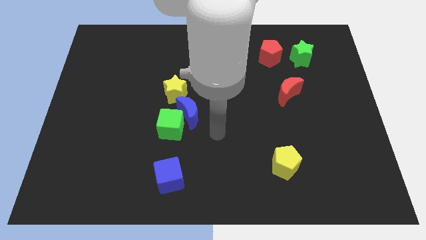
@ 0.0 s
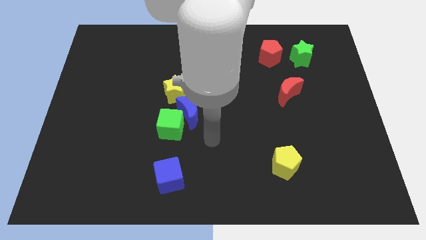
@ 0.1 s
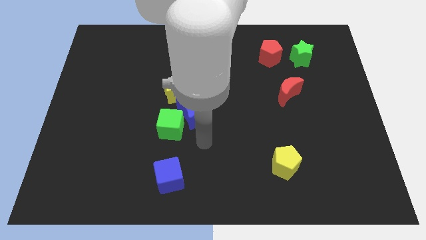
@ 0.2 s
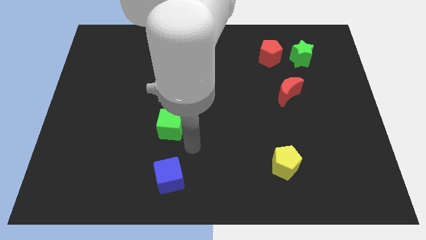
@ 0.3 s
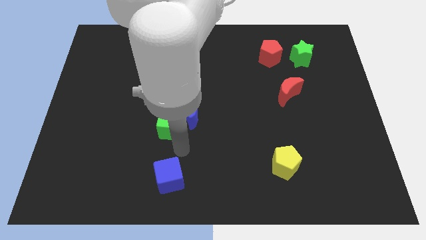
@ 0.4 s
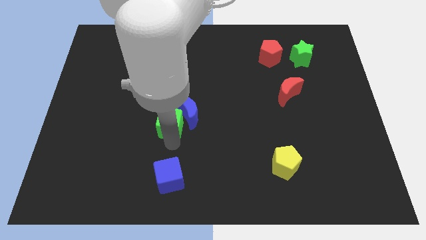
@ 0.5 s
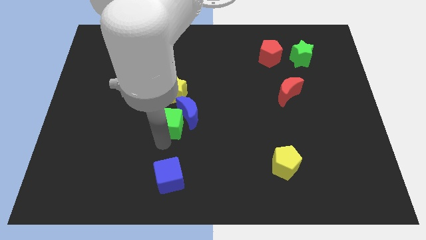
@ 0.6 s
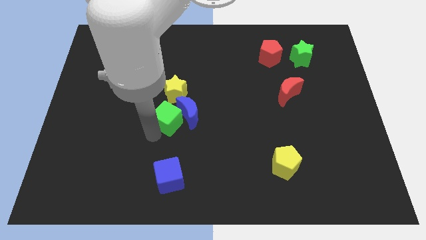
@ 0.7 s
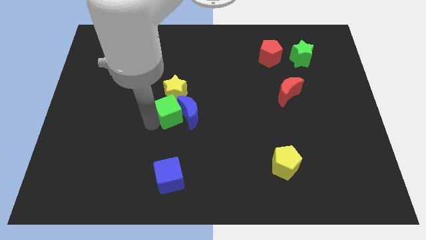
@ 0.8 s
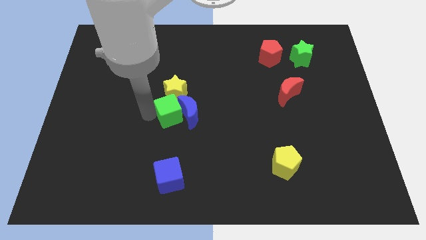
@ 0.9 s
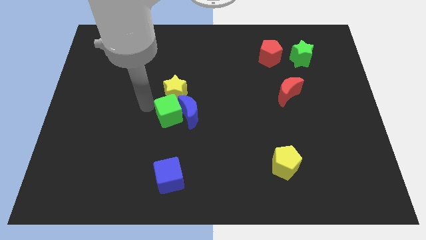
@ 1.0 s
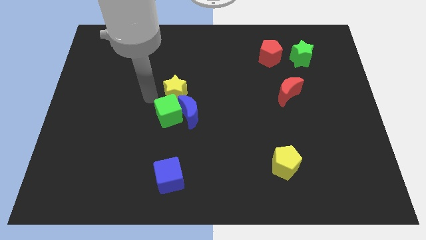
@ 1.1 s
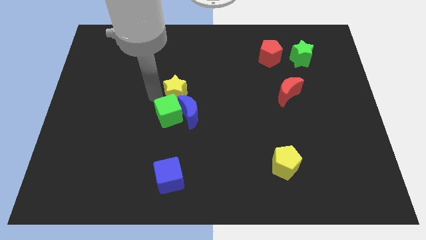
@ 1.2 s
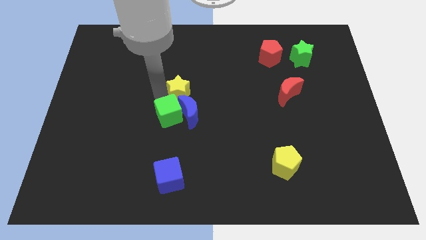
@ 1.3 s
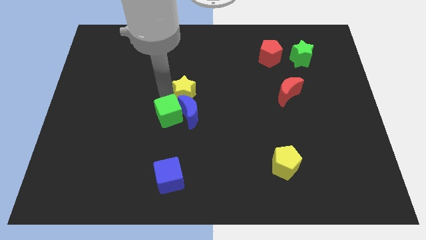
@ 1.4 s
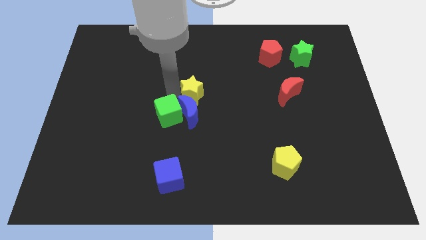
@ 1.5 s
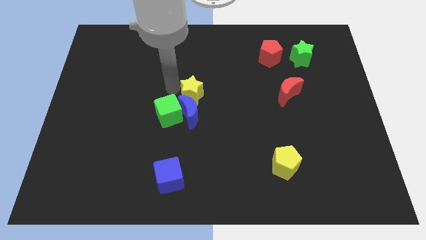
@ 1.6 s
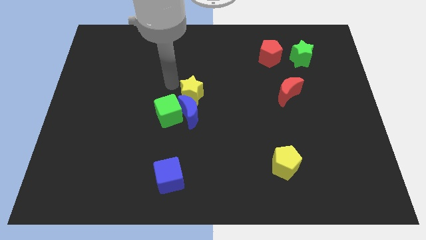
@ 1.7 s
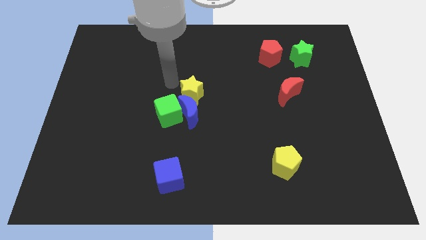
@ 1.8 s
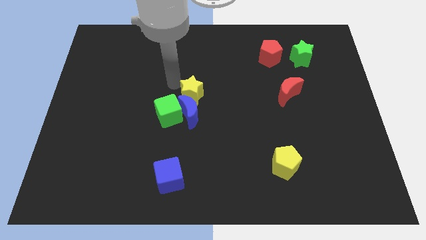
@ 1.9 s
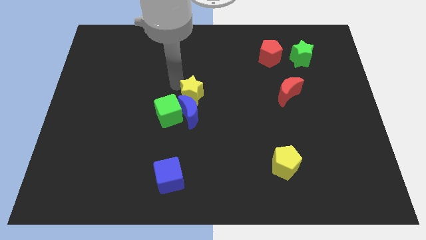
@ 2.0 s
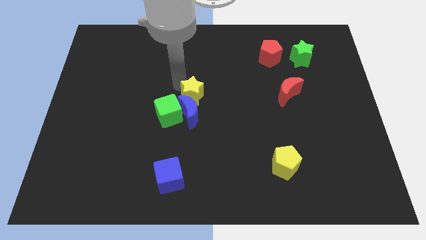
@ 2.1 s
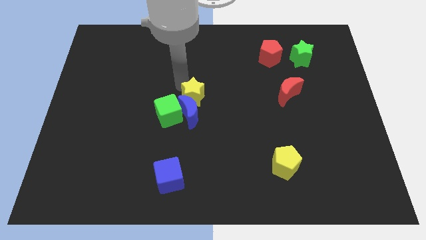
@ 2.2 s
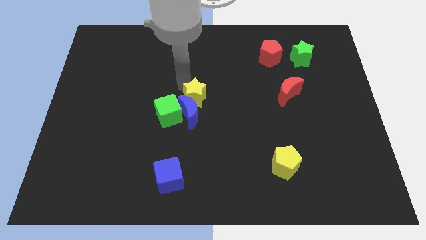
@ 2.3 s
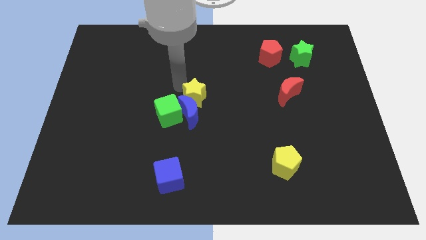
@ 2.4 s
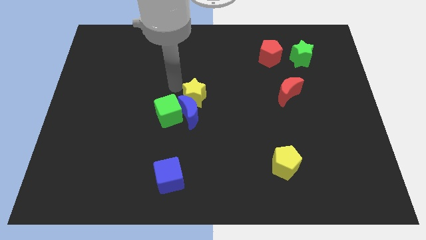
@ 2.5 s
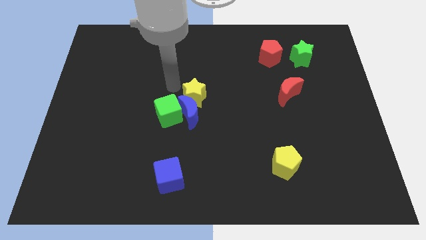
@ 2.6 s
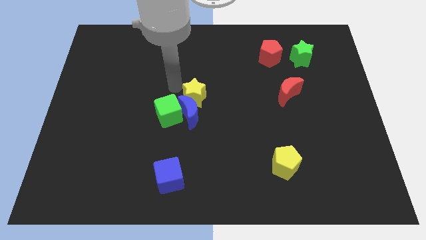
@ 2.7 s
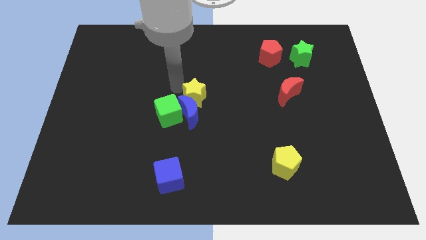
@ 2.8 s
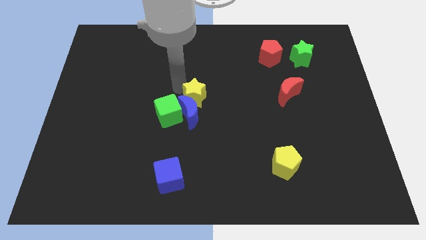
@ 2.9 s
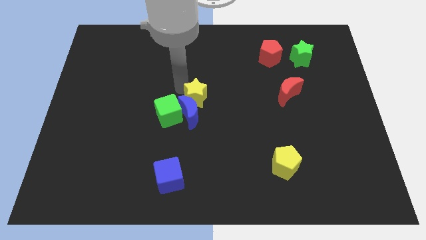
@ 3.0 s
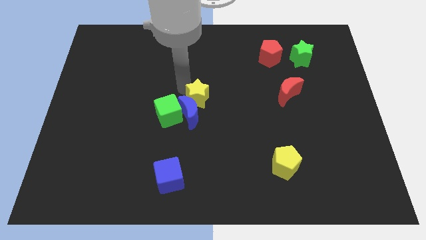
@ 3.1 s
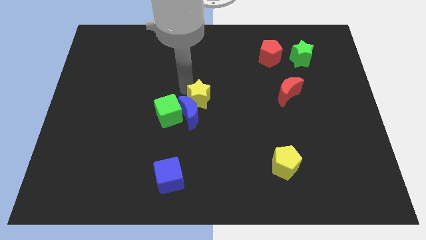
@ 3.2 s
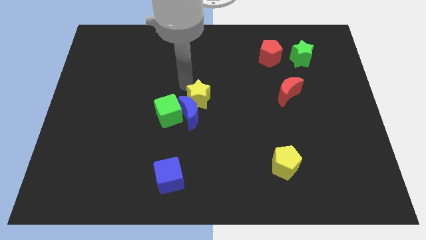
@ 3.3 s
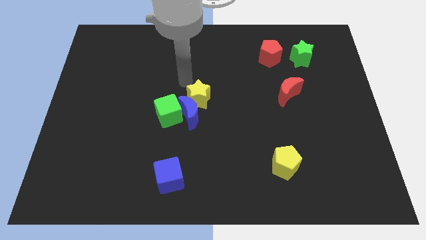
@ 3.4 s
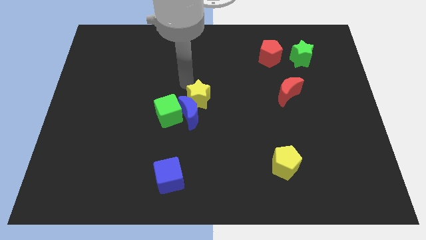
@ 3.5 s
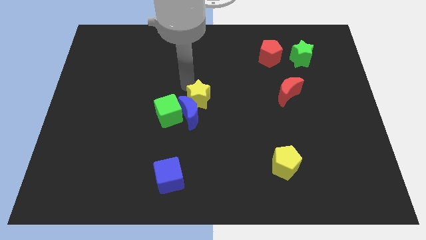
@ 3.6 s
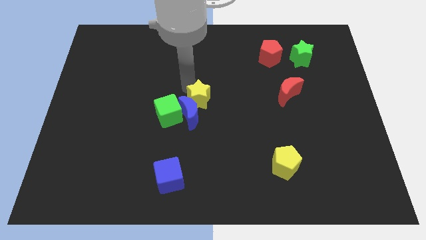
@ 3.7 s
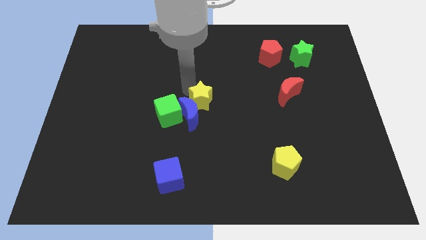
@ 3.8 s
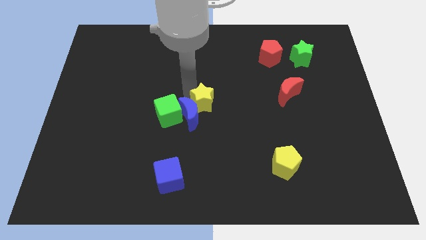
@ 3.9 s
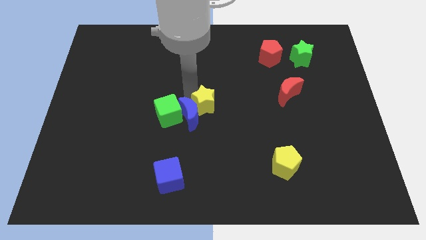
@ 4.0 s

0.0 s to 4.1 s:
slightly move the yellow star diagonally downwards and to the right

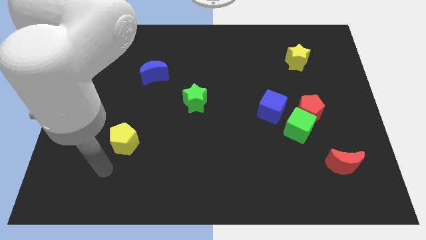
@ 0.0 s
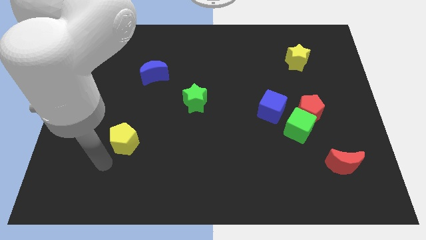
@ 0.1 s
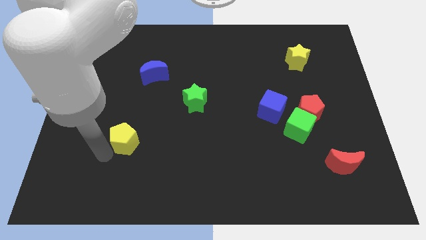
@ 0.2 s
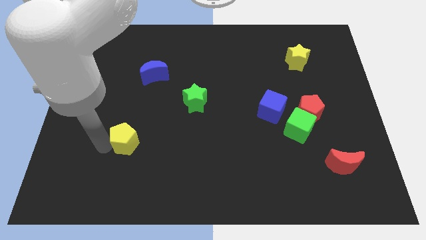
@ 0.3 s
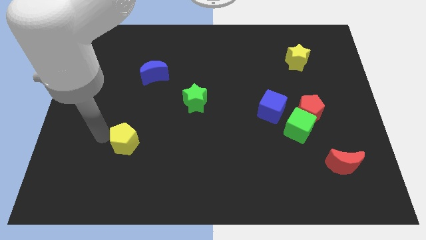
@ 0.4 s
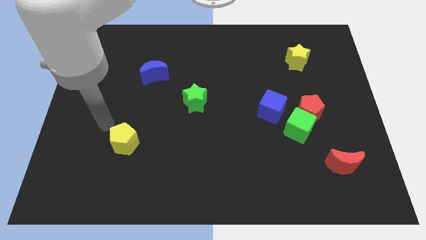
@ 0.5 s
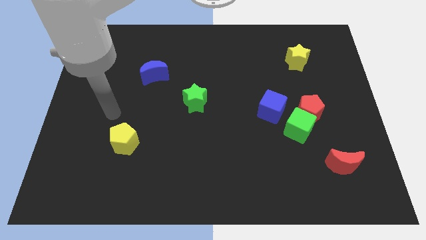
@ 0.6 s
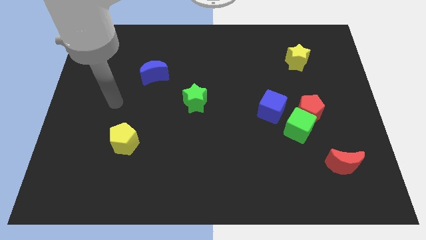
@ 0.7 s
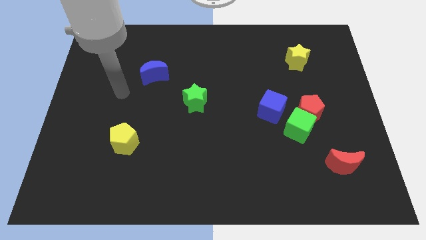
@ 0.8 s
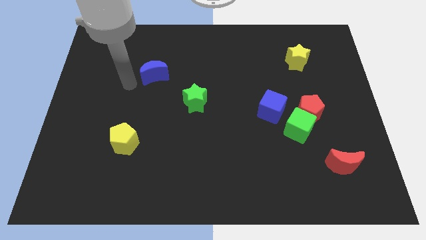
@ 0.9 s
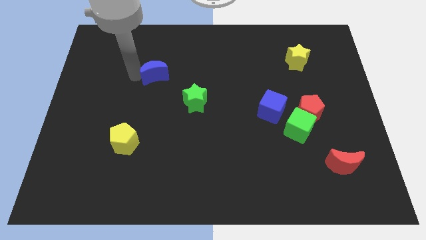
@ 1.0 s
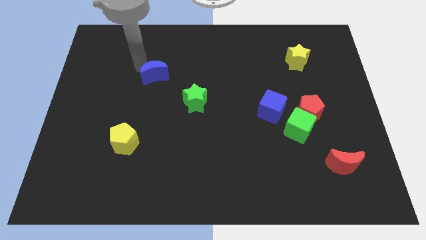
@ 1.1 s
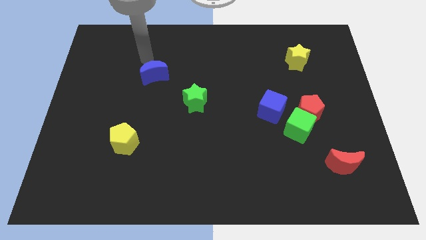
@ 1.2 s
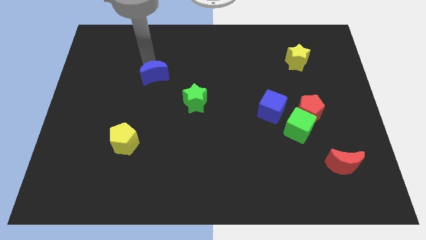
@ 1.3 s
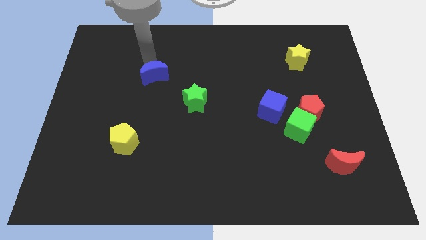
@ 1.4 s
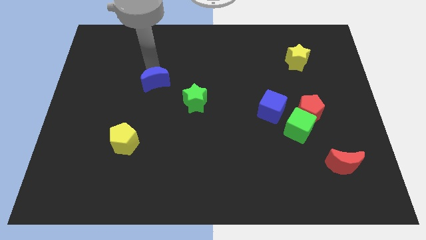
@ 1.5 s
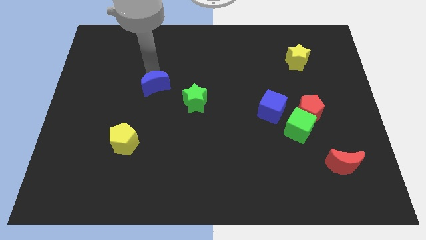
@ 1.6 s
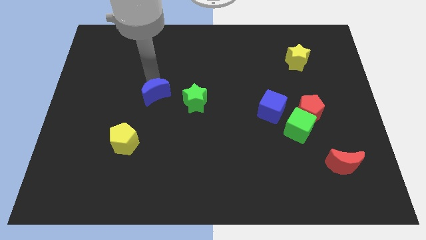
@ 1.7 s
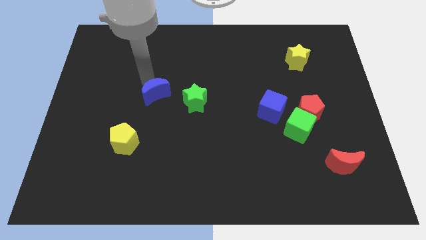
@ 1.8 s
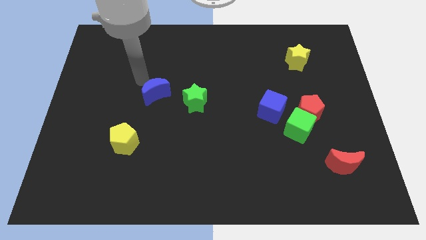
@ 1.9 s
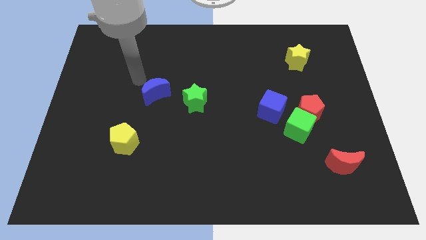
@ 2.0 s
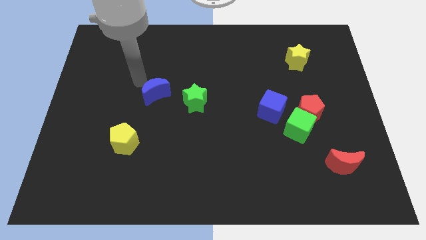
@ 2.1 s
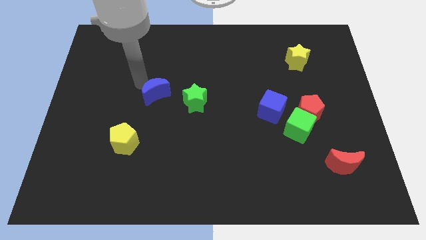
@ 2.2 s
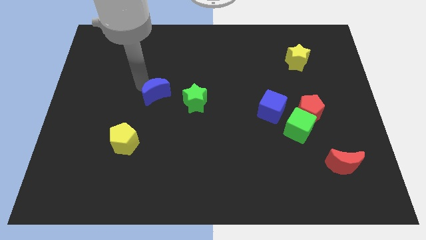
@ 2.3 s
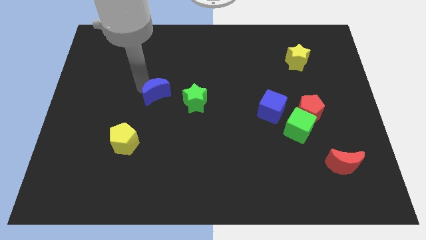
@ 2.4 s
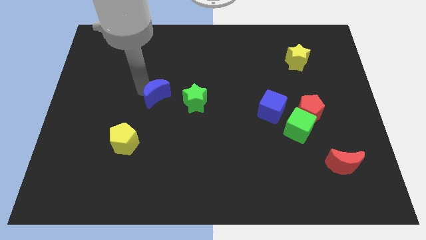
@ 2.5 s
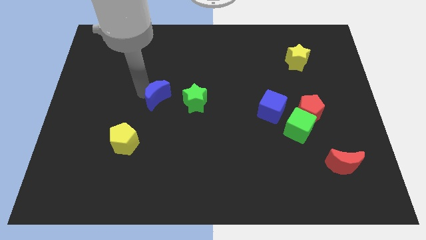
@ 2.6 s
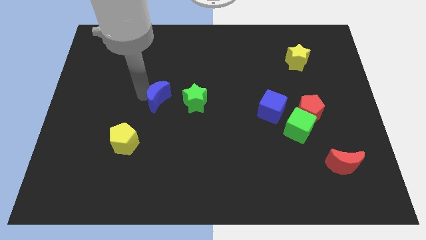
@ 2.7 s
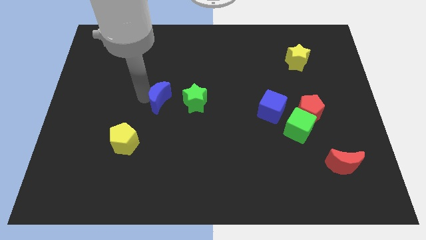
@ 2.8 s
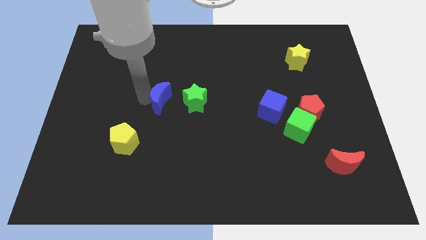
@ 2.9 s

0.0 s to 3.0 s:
push the blue moon a bit down and to the right diagonally

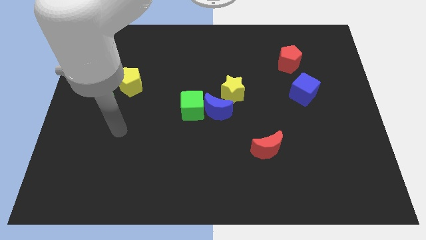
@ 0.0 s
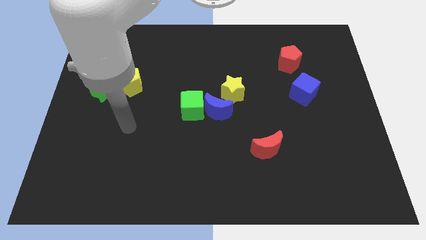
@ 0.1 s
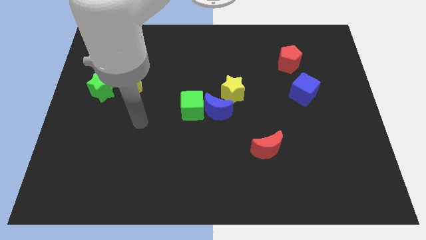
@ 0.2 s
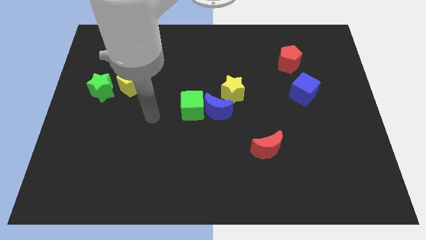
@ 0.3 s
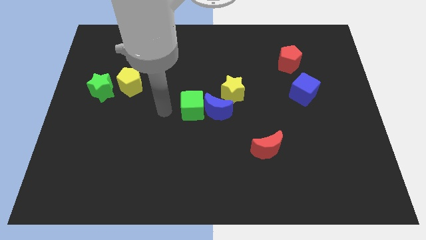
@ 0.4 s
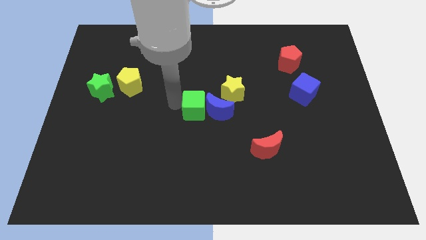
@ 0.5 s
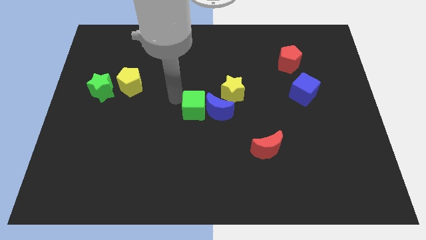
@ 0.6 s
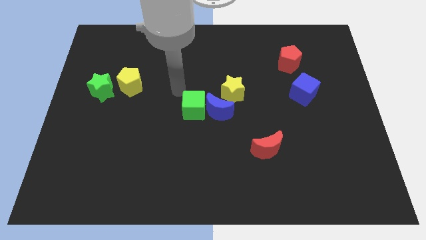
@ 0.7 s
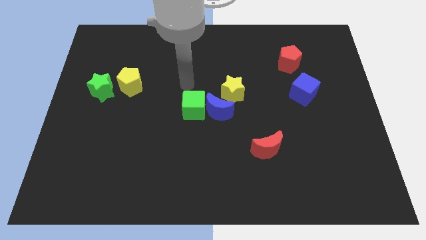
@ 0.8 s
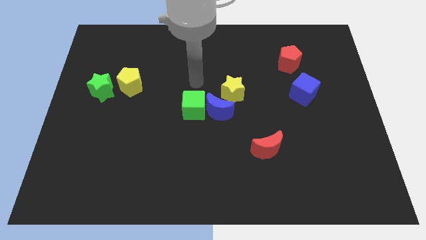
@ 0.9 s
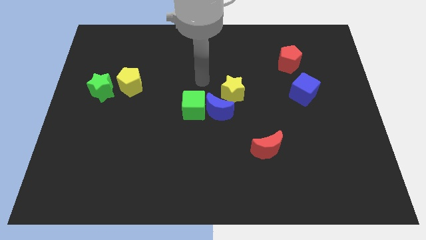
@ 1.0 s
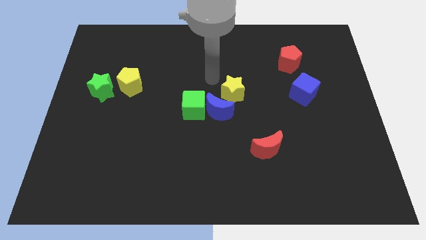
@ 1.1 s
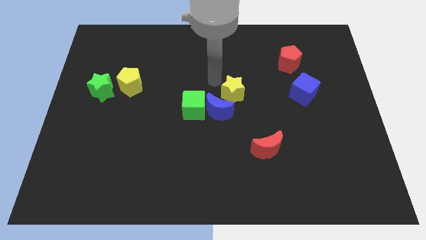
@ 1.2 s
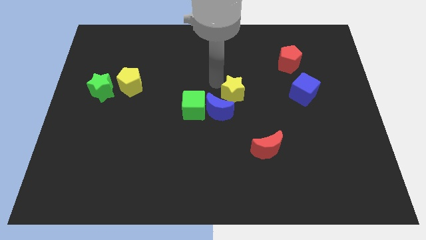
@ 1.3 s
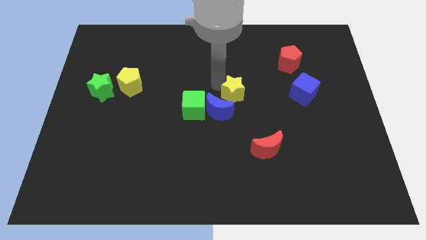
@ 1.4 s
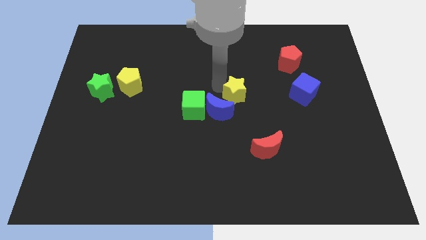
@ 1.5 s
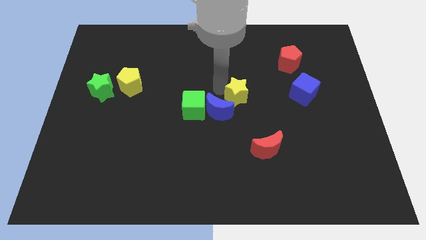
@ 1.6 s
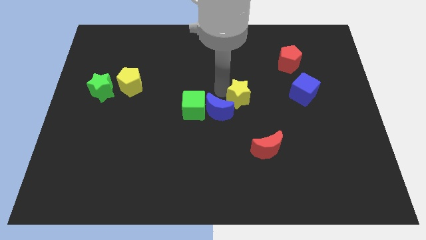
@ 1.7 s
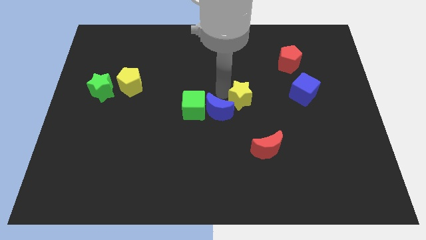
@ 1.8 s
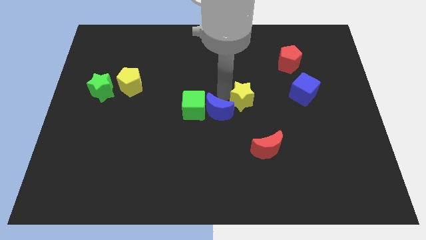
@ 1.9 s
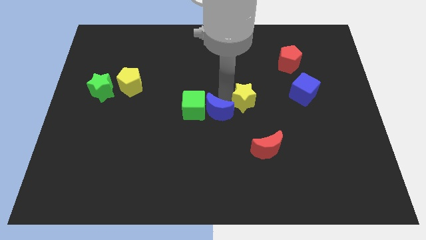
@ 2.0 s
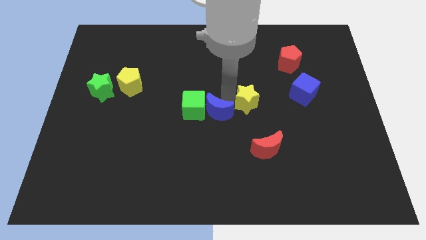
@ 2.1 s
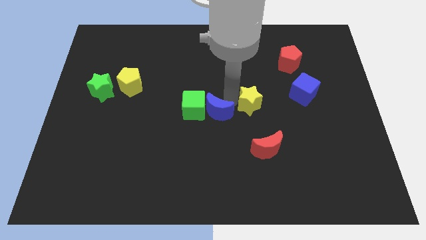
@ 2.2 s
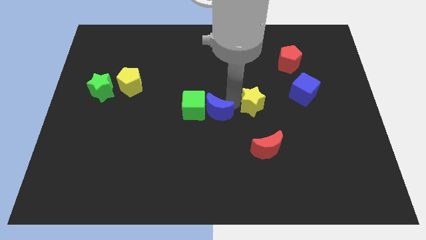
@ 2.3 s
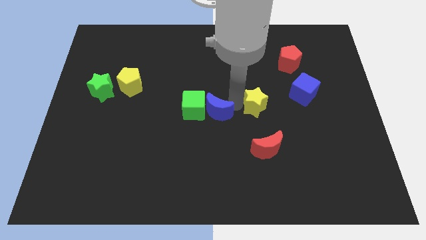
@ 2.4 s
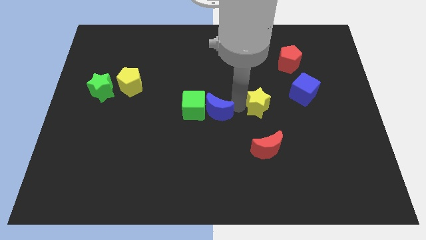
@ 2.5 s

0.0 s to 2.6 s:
slightly move the yellow star diagonally down and to the right
